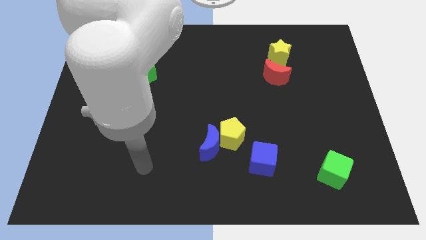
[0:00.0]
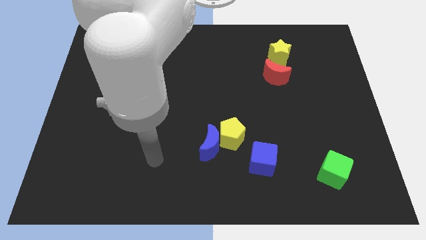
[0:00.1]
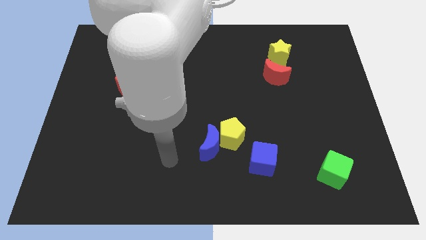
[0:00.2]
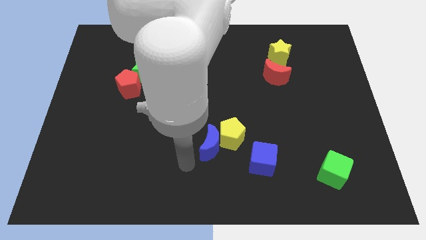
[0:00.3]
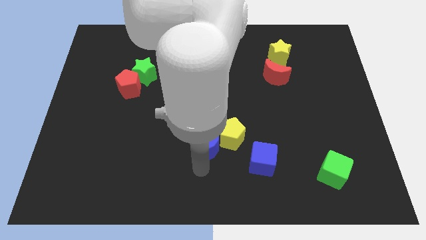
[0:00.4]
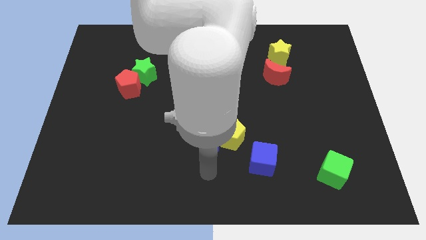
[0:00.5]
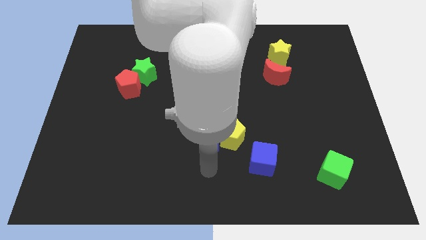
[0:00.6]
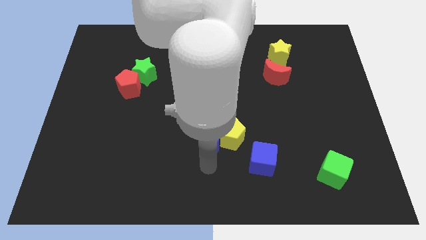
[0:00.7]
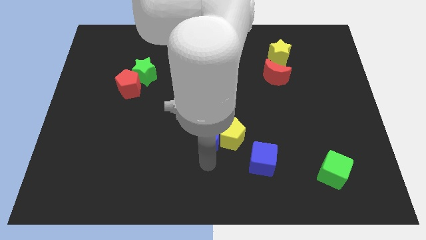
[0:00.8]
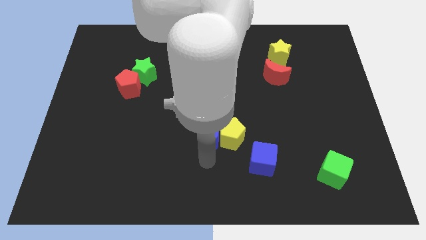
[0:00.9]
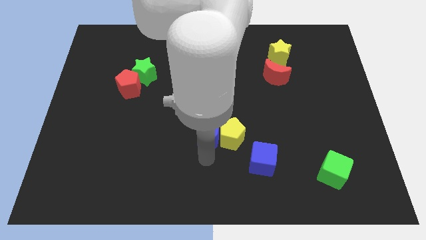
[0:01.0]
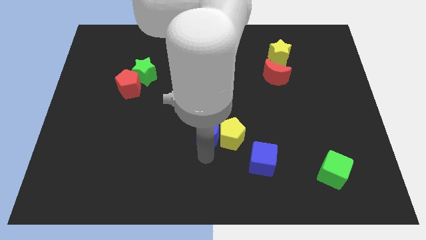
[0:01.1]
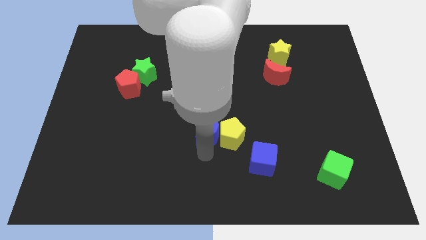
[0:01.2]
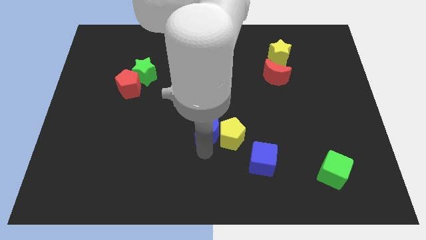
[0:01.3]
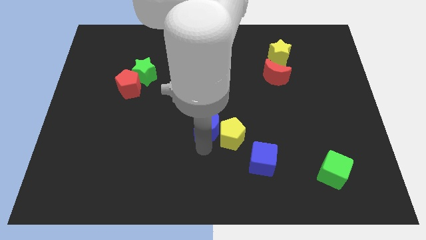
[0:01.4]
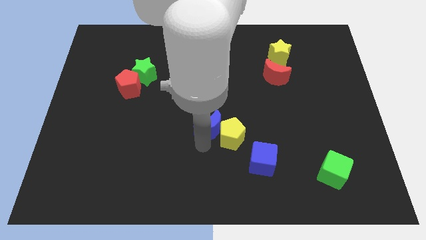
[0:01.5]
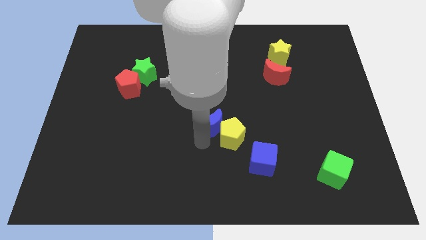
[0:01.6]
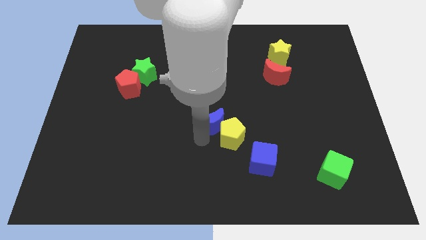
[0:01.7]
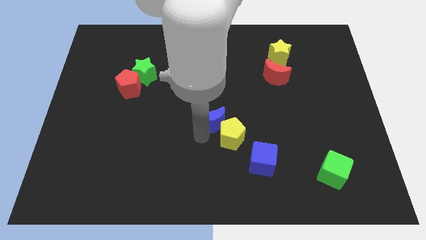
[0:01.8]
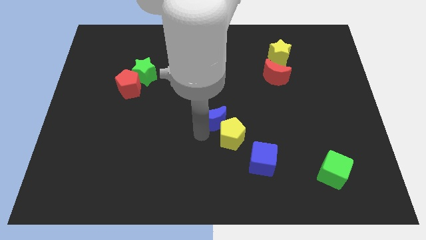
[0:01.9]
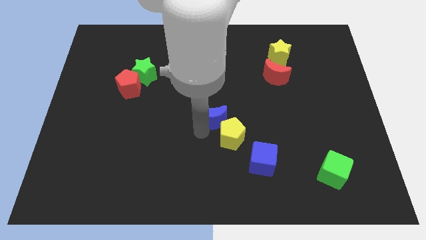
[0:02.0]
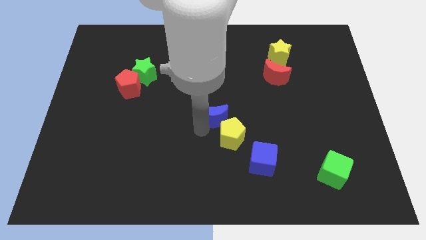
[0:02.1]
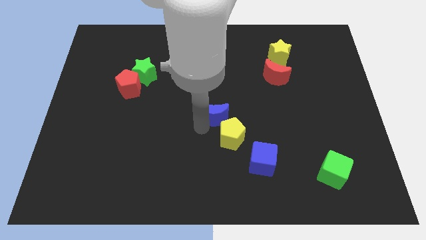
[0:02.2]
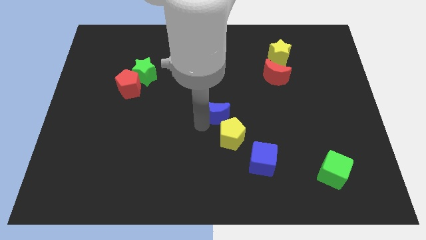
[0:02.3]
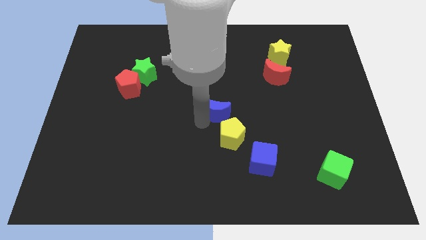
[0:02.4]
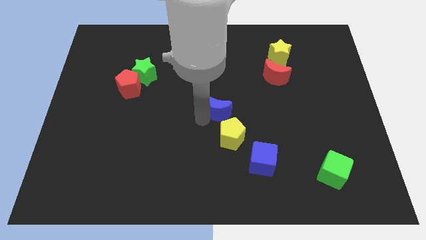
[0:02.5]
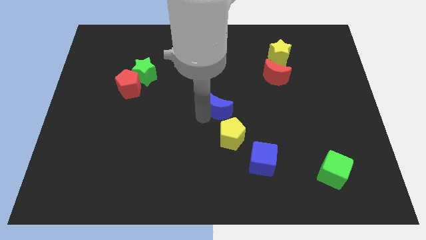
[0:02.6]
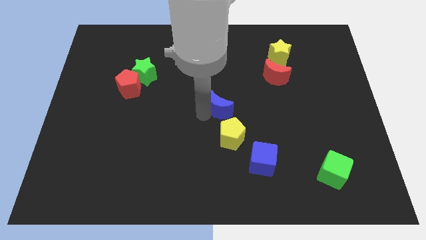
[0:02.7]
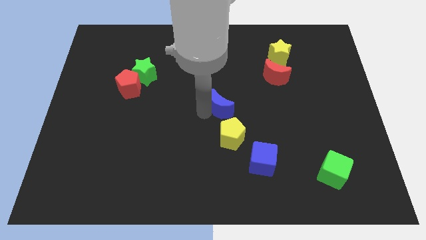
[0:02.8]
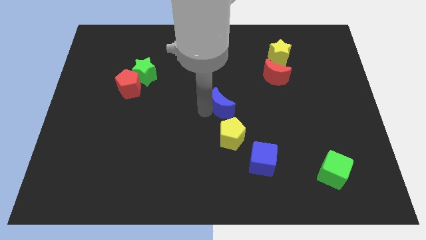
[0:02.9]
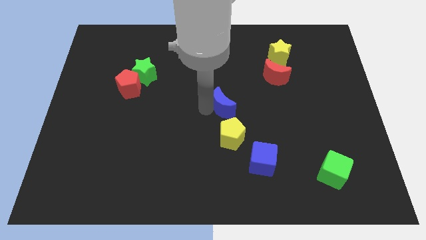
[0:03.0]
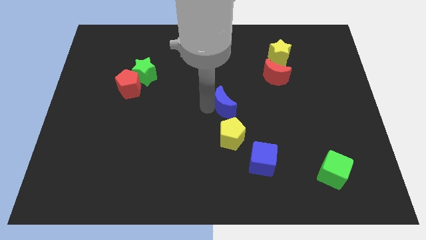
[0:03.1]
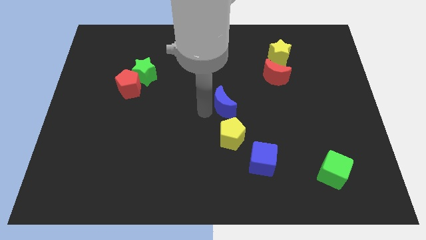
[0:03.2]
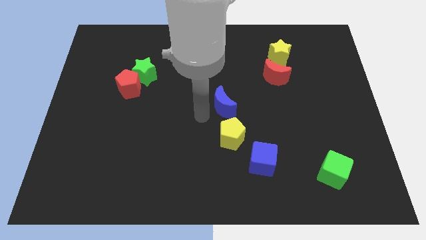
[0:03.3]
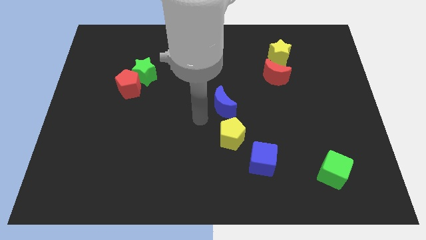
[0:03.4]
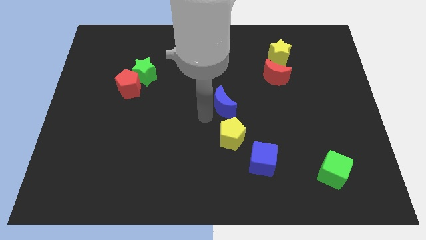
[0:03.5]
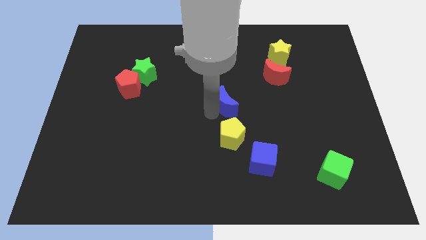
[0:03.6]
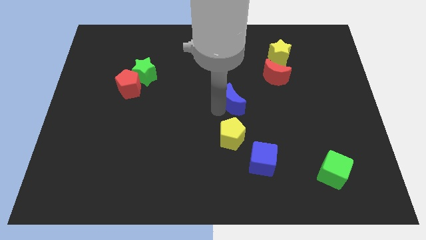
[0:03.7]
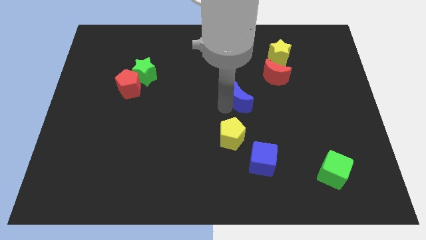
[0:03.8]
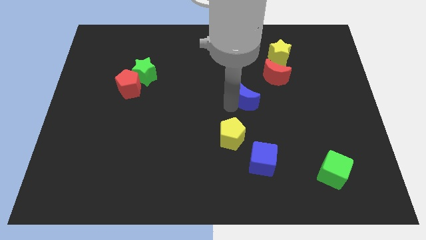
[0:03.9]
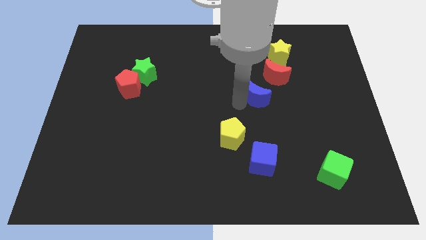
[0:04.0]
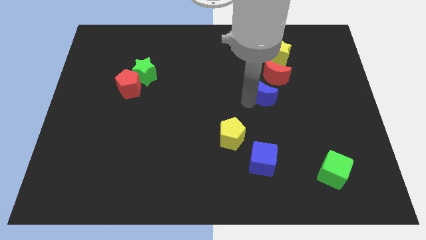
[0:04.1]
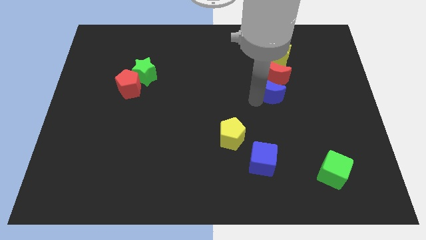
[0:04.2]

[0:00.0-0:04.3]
push the blue moon close to the red moon

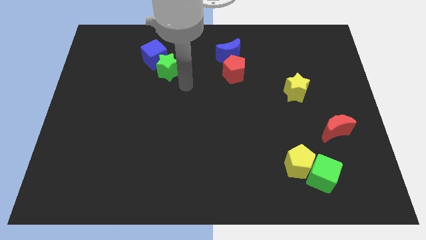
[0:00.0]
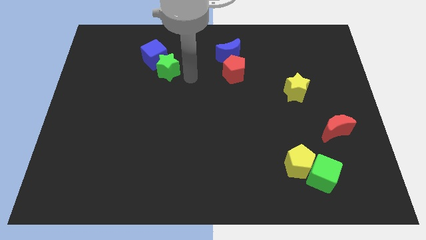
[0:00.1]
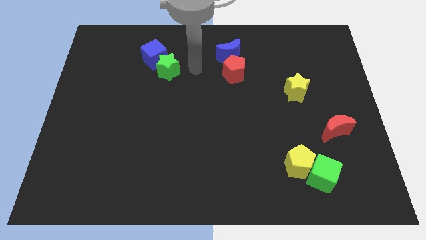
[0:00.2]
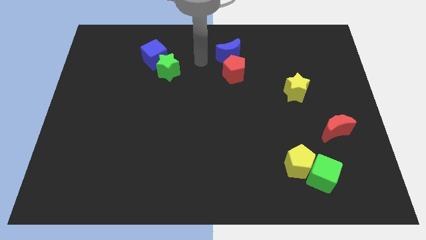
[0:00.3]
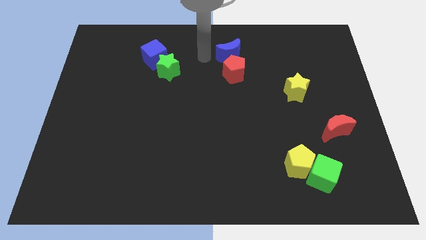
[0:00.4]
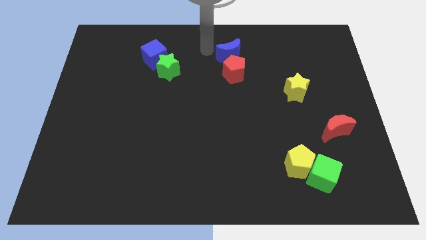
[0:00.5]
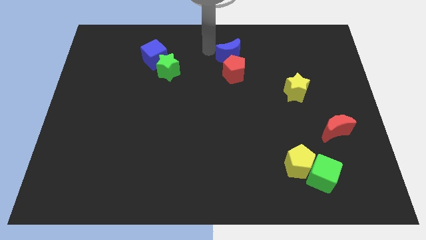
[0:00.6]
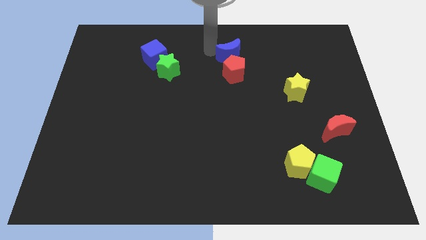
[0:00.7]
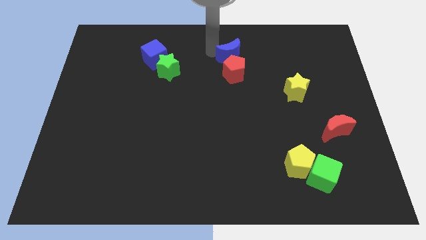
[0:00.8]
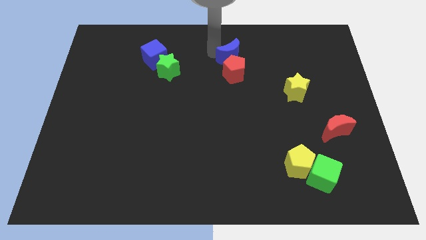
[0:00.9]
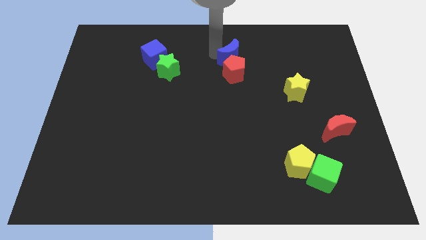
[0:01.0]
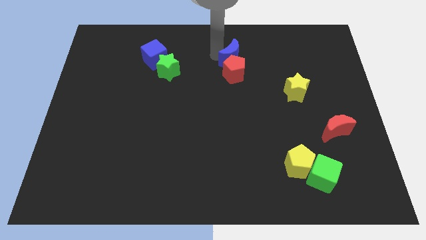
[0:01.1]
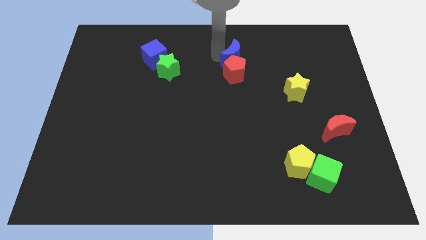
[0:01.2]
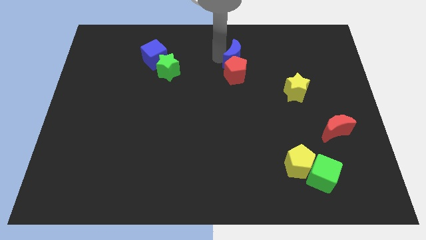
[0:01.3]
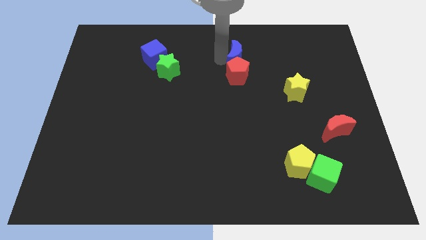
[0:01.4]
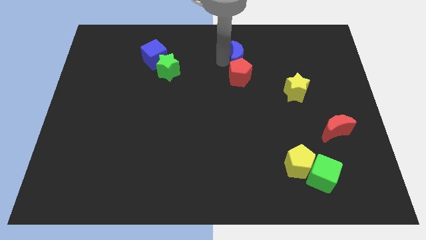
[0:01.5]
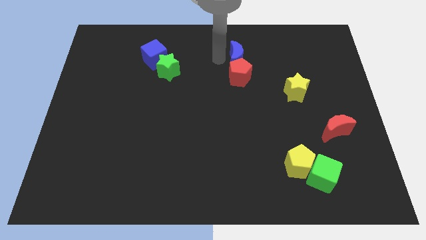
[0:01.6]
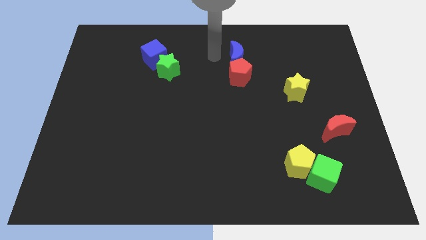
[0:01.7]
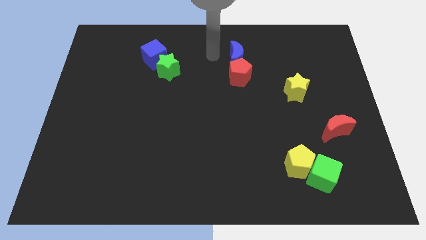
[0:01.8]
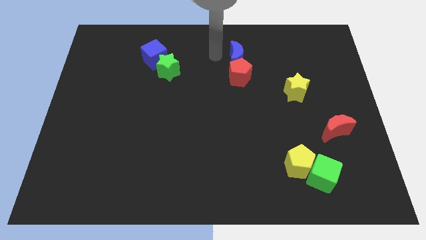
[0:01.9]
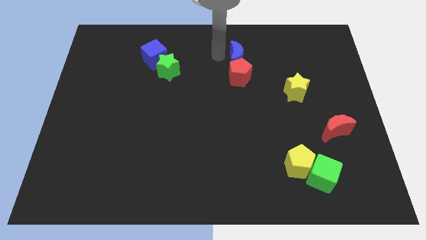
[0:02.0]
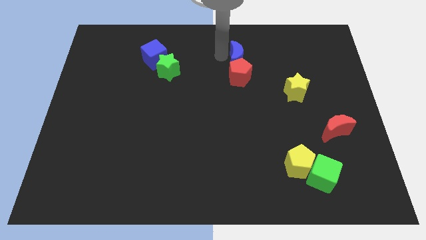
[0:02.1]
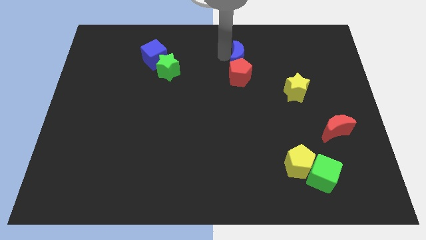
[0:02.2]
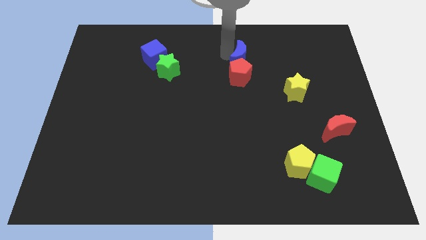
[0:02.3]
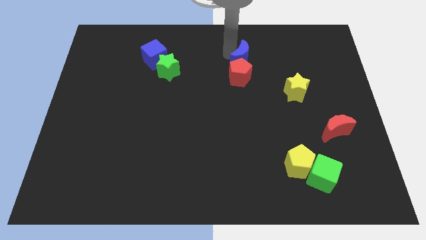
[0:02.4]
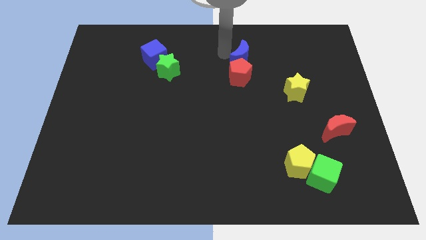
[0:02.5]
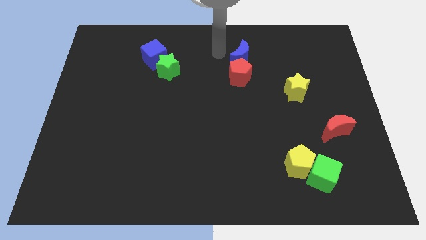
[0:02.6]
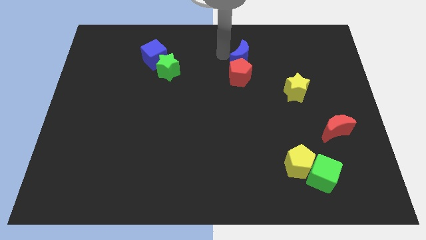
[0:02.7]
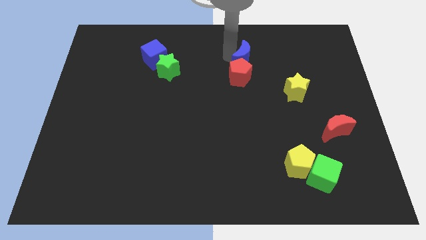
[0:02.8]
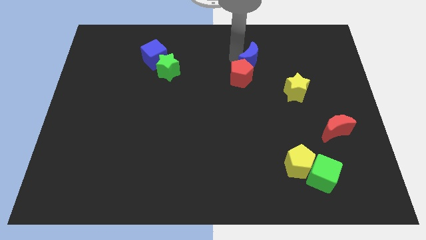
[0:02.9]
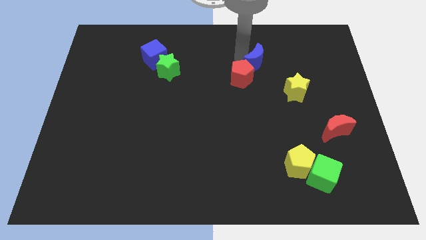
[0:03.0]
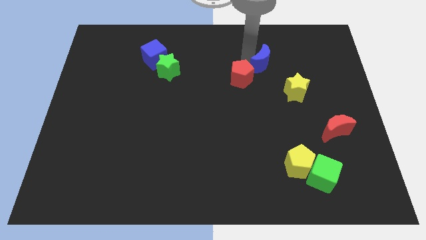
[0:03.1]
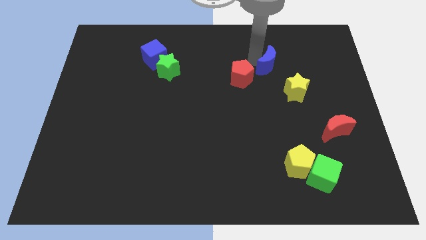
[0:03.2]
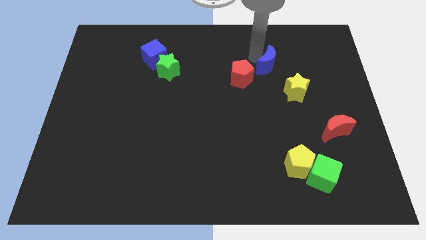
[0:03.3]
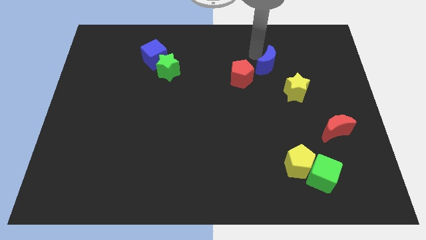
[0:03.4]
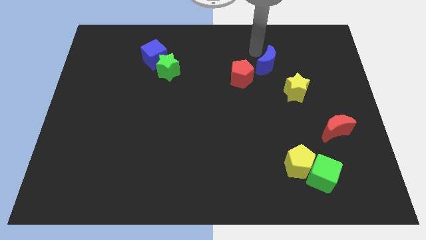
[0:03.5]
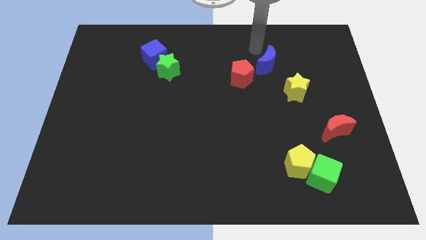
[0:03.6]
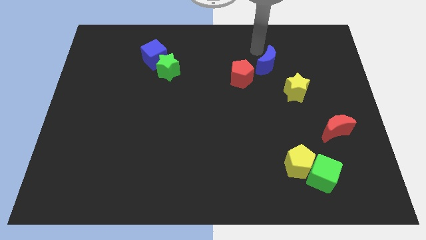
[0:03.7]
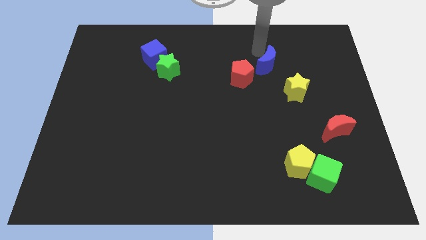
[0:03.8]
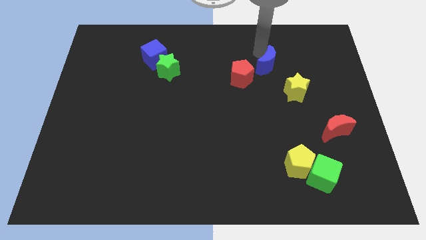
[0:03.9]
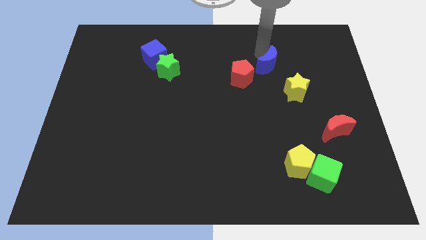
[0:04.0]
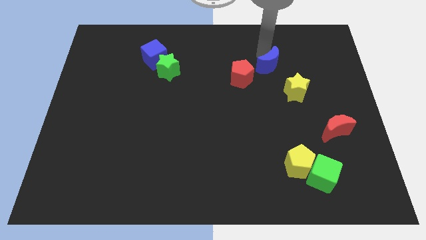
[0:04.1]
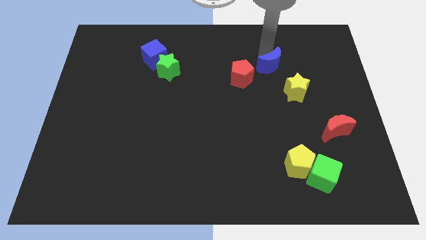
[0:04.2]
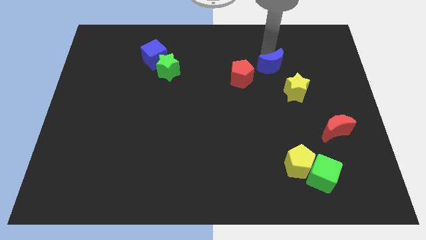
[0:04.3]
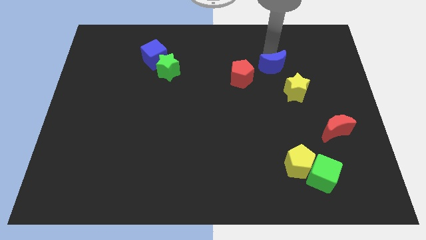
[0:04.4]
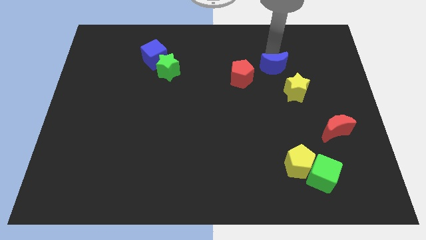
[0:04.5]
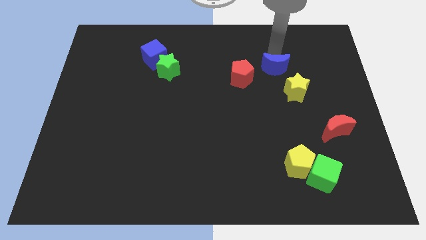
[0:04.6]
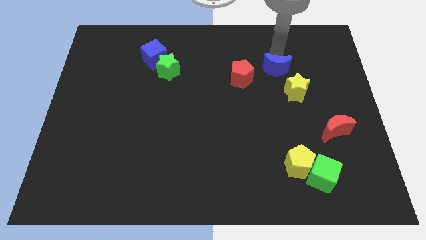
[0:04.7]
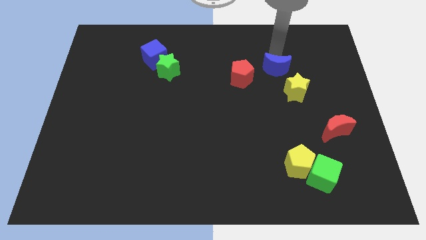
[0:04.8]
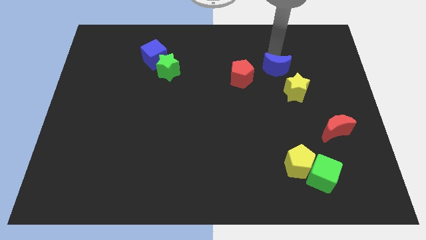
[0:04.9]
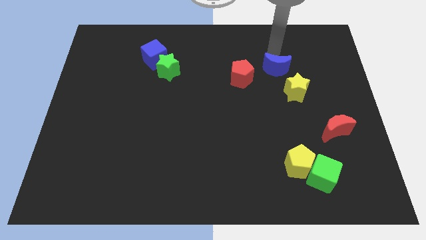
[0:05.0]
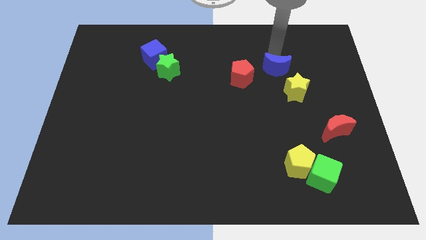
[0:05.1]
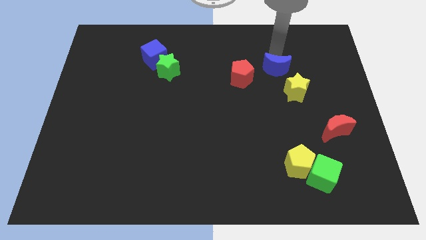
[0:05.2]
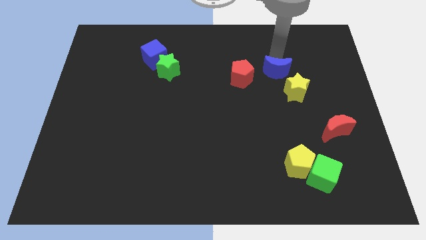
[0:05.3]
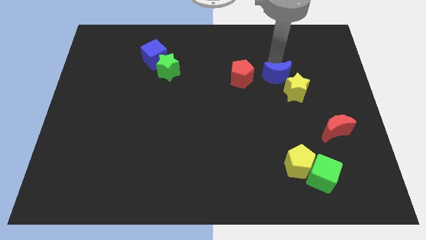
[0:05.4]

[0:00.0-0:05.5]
put the blue moon close to the yellow star
